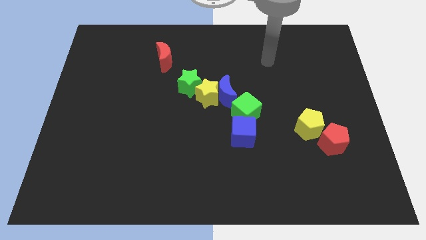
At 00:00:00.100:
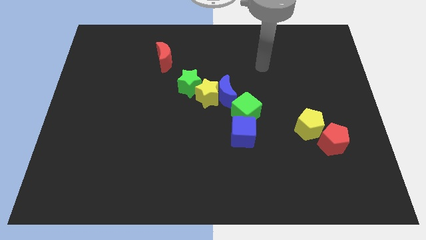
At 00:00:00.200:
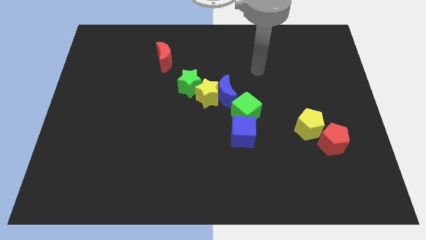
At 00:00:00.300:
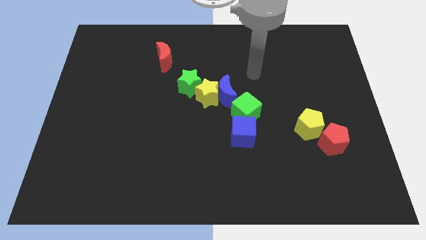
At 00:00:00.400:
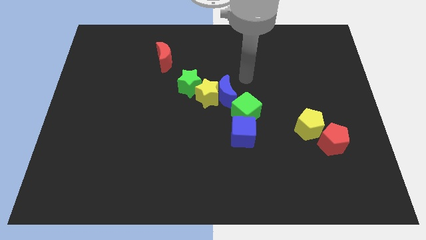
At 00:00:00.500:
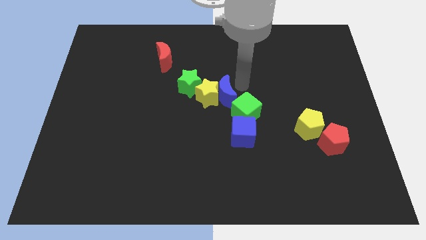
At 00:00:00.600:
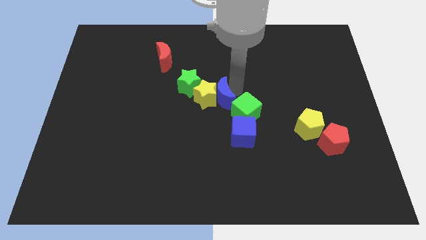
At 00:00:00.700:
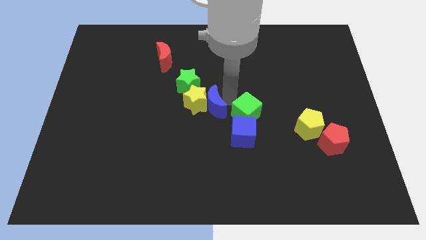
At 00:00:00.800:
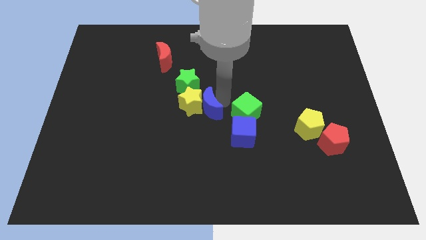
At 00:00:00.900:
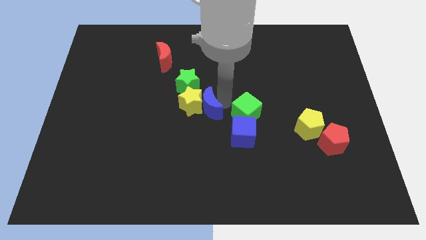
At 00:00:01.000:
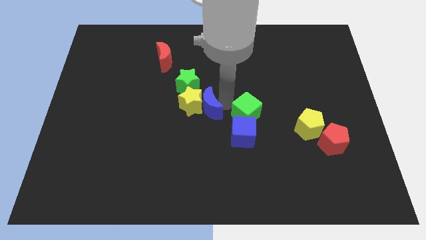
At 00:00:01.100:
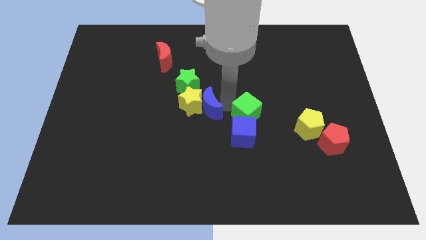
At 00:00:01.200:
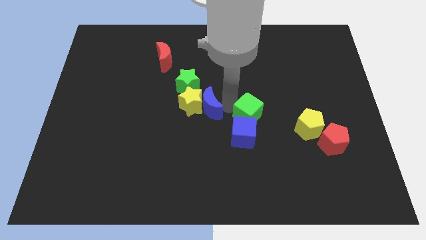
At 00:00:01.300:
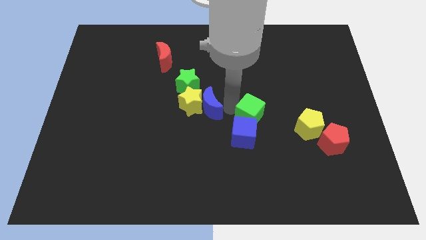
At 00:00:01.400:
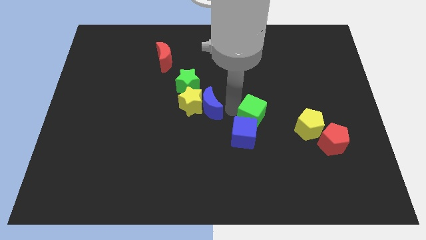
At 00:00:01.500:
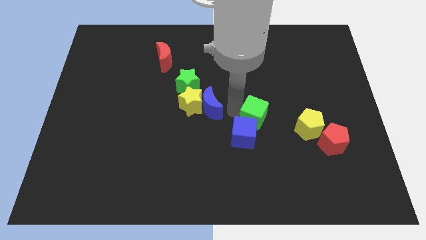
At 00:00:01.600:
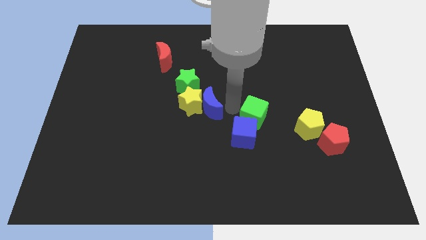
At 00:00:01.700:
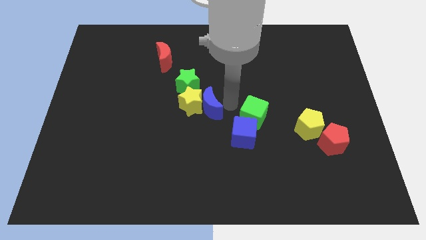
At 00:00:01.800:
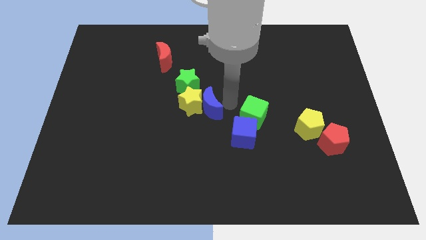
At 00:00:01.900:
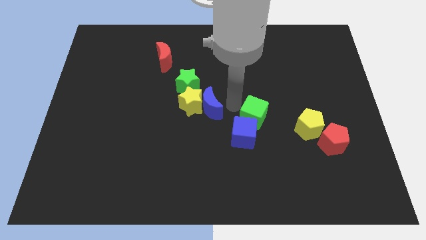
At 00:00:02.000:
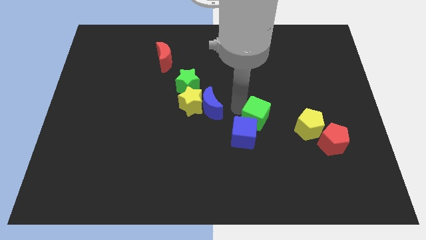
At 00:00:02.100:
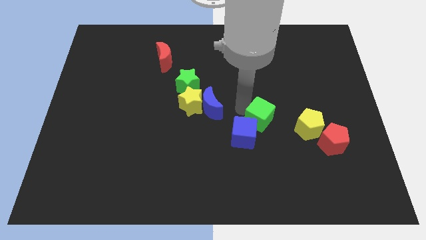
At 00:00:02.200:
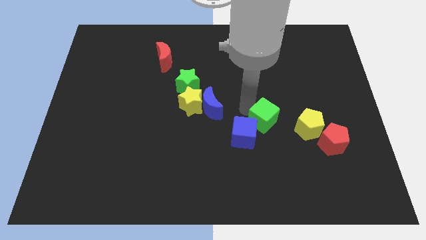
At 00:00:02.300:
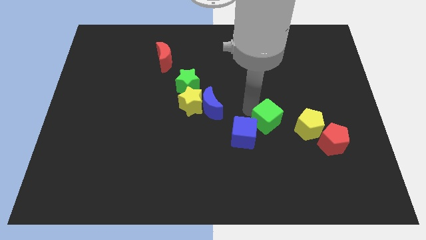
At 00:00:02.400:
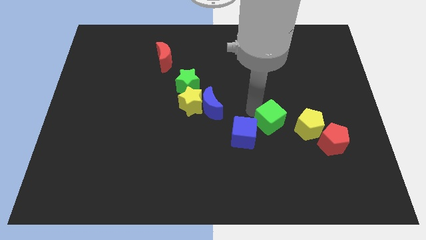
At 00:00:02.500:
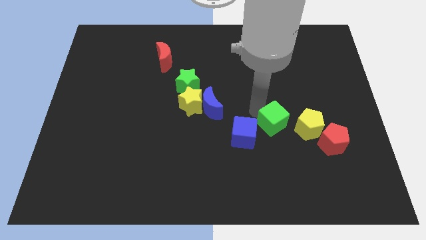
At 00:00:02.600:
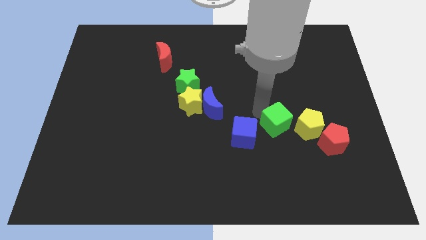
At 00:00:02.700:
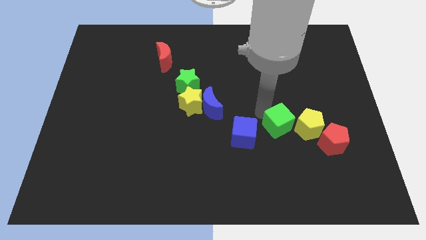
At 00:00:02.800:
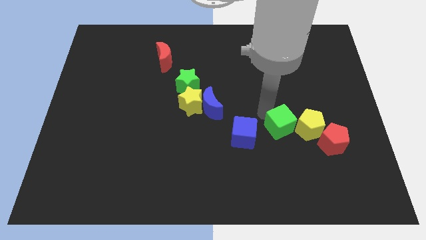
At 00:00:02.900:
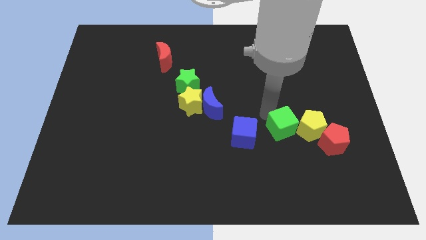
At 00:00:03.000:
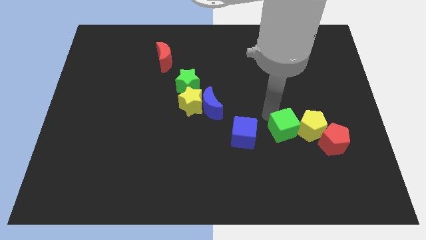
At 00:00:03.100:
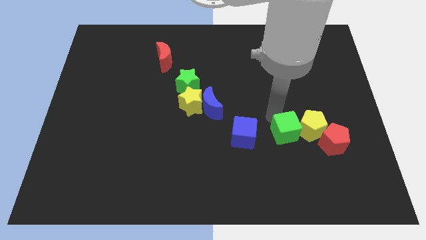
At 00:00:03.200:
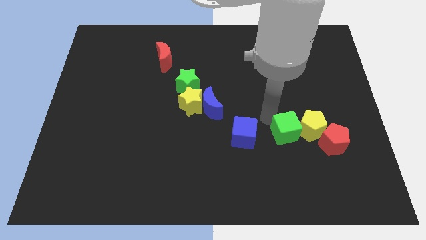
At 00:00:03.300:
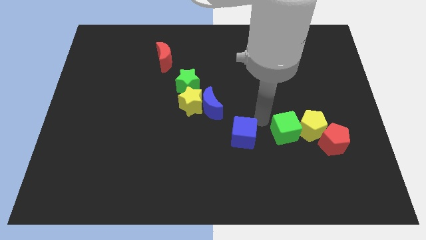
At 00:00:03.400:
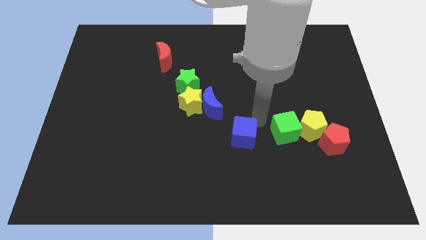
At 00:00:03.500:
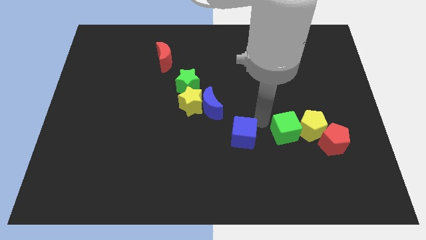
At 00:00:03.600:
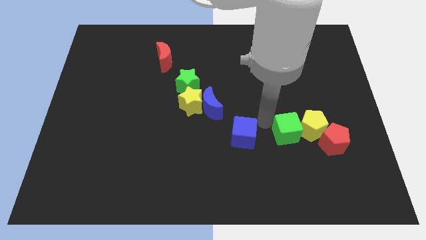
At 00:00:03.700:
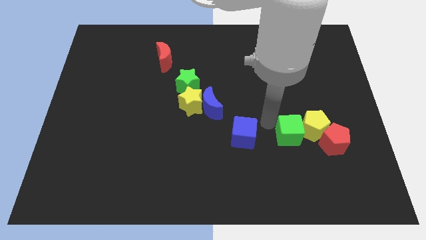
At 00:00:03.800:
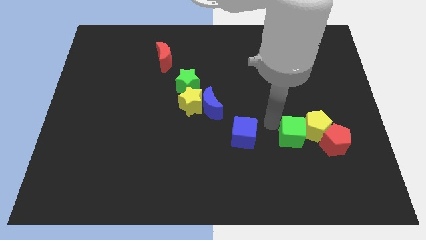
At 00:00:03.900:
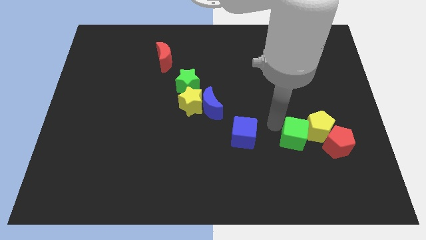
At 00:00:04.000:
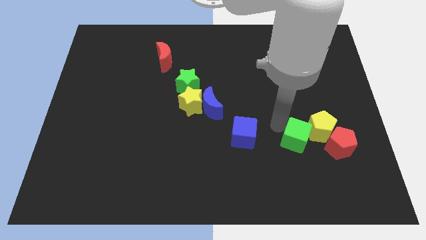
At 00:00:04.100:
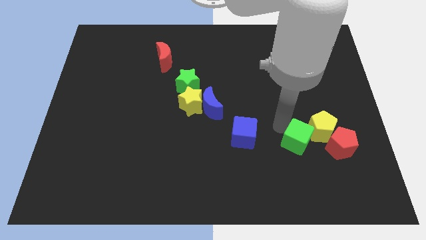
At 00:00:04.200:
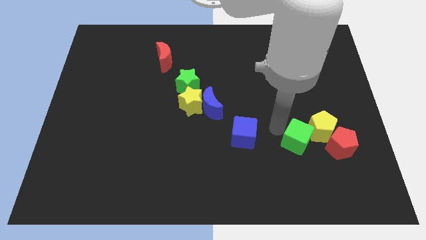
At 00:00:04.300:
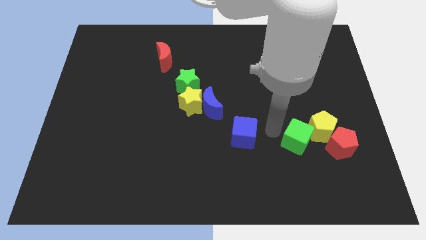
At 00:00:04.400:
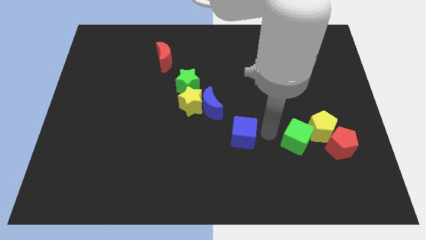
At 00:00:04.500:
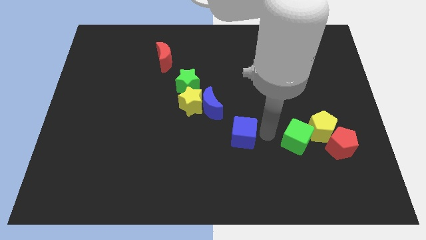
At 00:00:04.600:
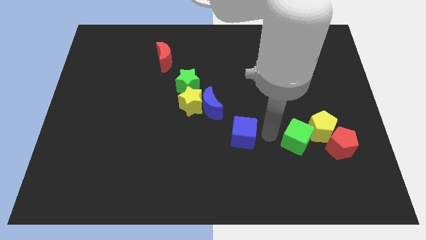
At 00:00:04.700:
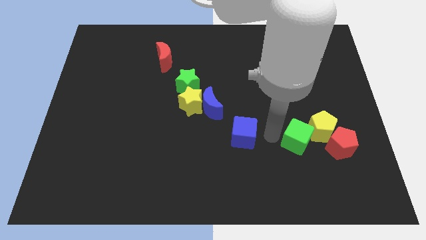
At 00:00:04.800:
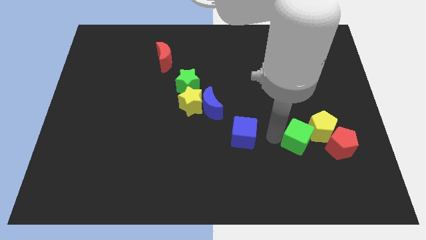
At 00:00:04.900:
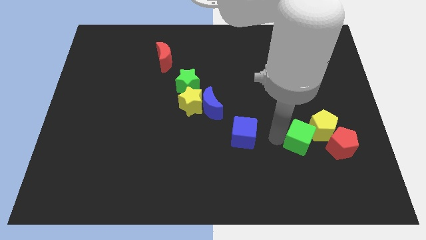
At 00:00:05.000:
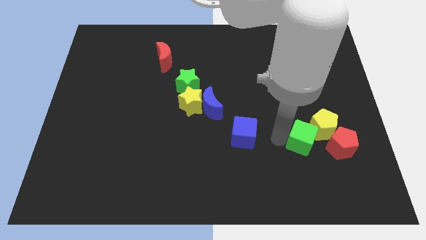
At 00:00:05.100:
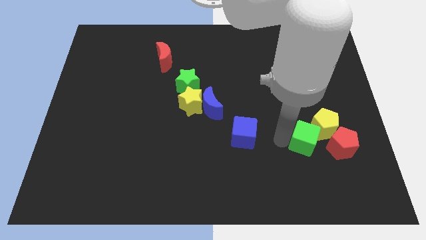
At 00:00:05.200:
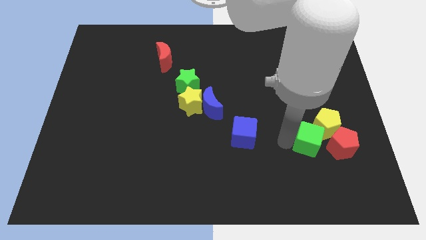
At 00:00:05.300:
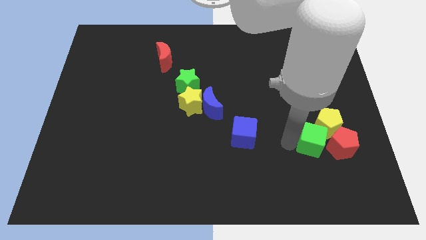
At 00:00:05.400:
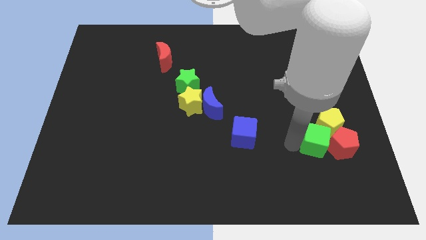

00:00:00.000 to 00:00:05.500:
push the green cube next to the red pentagon

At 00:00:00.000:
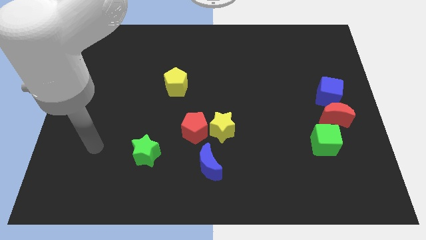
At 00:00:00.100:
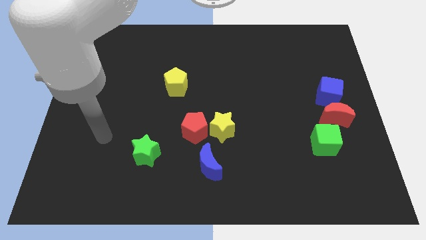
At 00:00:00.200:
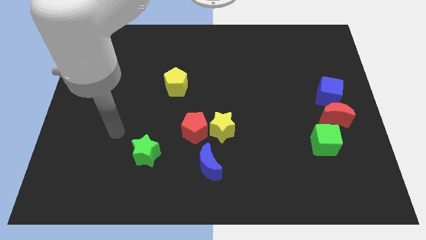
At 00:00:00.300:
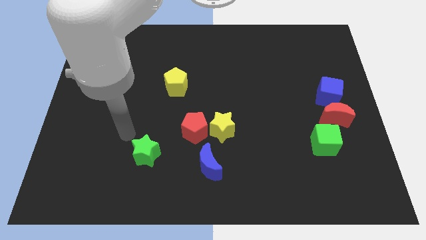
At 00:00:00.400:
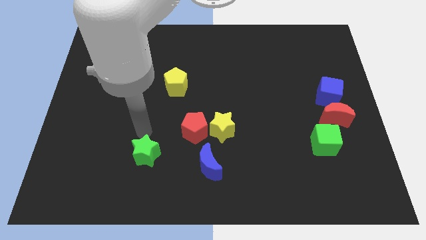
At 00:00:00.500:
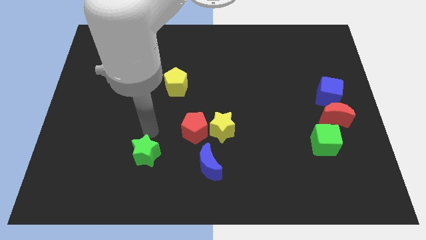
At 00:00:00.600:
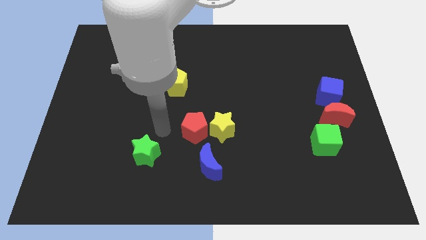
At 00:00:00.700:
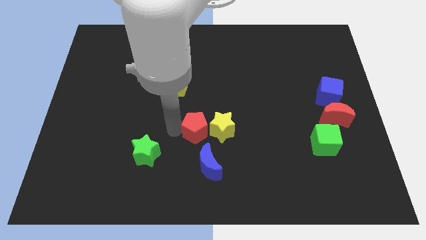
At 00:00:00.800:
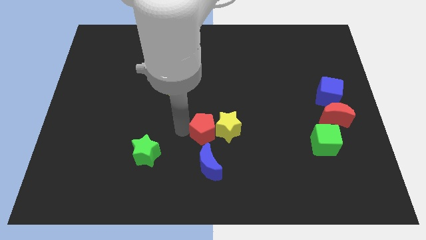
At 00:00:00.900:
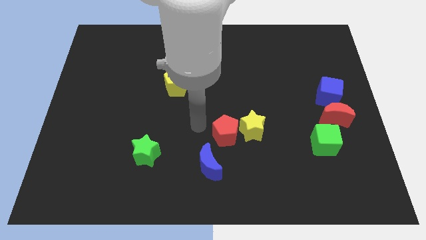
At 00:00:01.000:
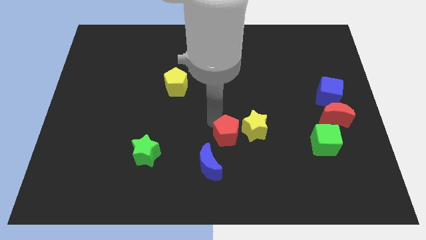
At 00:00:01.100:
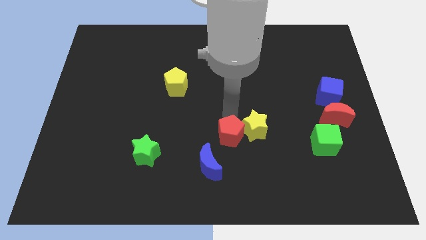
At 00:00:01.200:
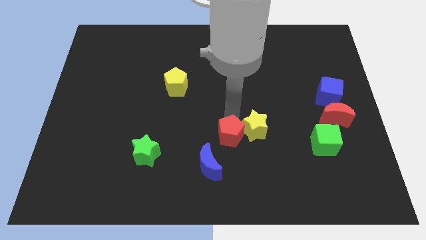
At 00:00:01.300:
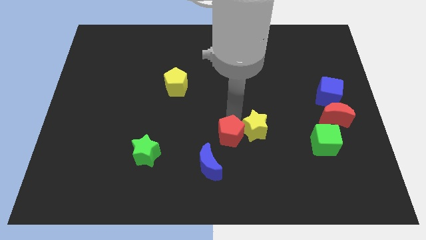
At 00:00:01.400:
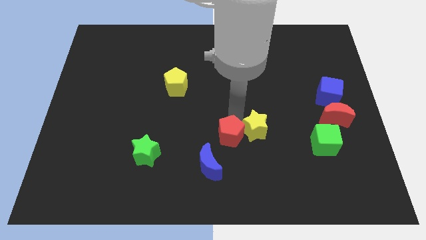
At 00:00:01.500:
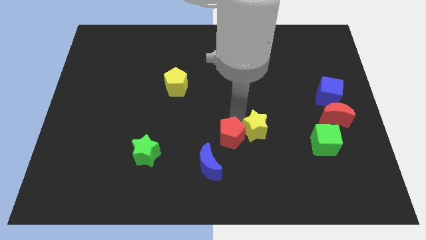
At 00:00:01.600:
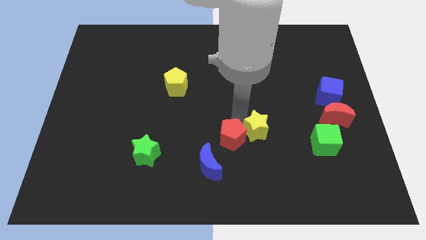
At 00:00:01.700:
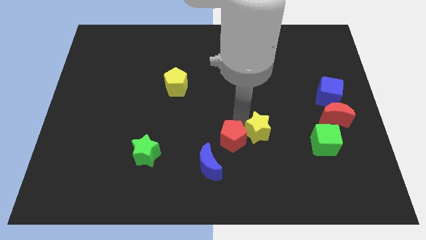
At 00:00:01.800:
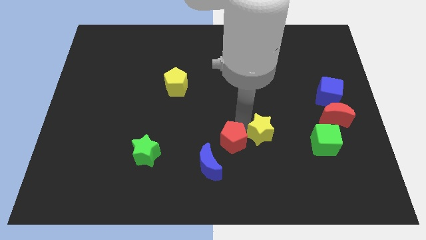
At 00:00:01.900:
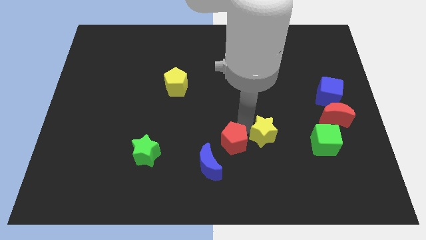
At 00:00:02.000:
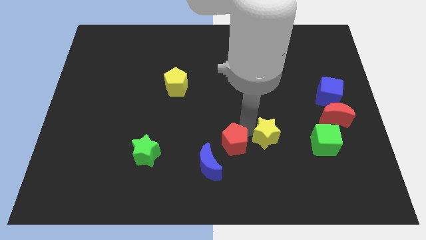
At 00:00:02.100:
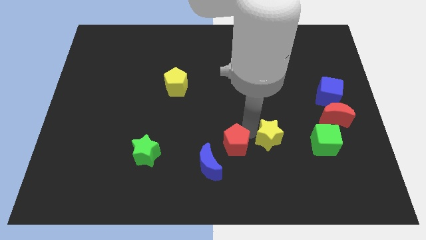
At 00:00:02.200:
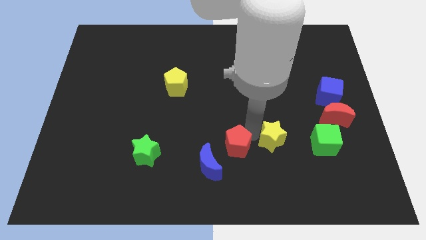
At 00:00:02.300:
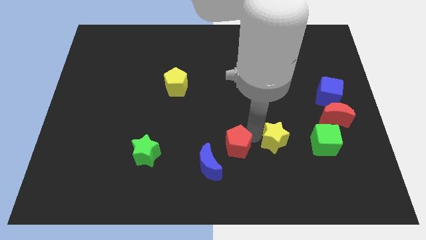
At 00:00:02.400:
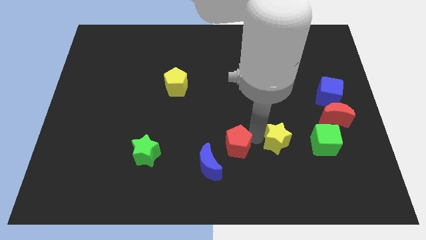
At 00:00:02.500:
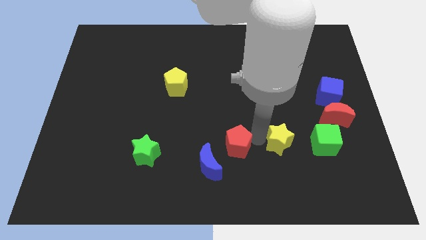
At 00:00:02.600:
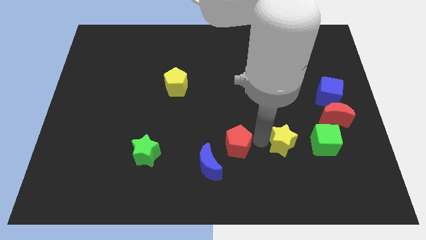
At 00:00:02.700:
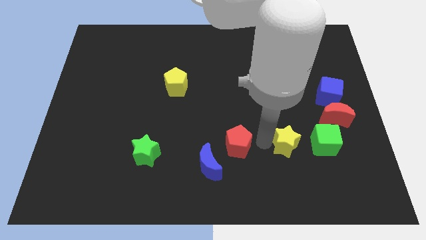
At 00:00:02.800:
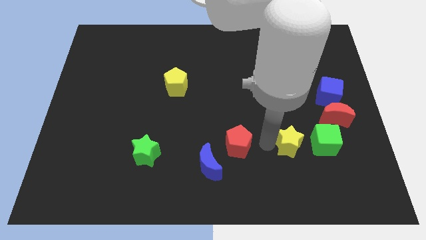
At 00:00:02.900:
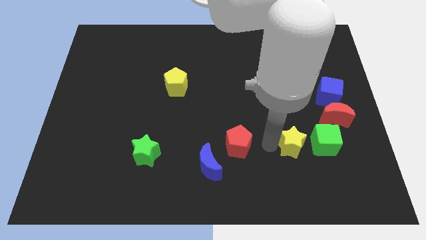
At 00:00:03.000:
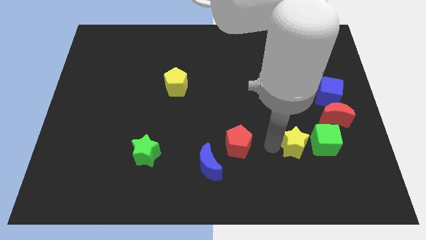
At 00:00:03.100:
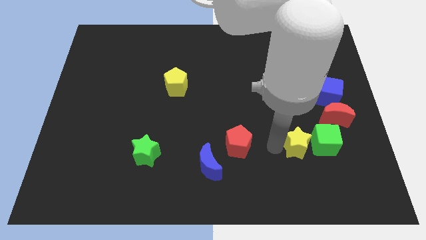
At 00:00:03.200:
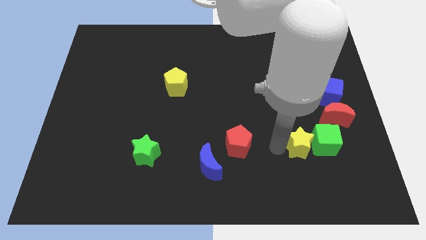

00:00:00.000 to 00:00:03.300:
move the yellow star towards the green cube
